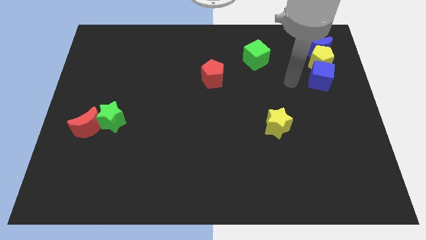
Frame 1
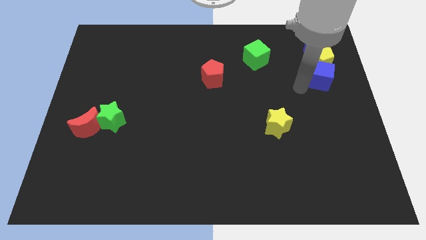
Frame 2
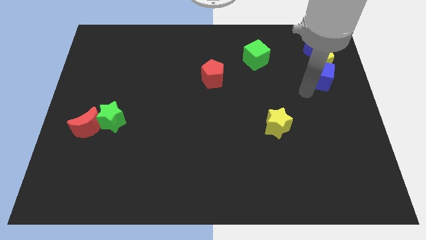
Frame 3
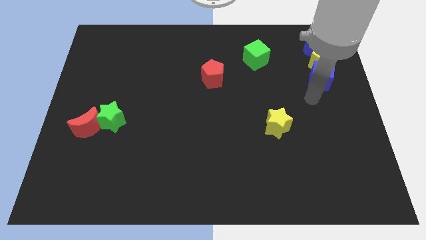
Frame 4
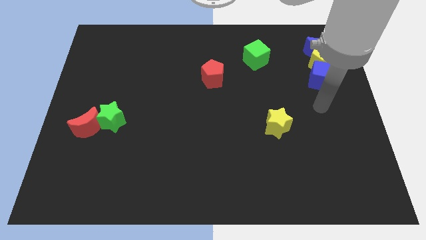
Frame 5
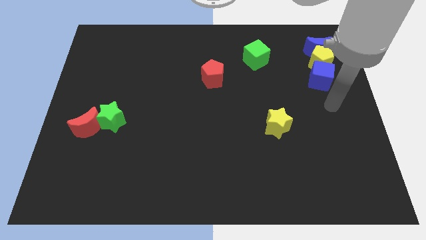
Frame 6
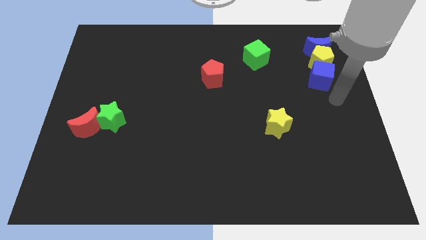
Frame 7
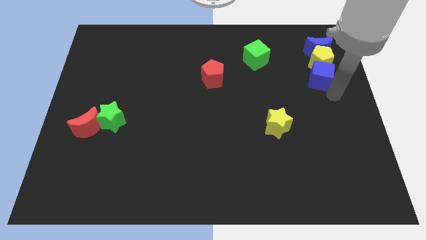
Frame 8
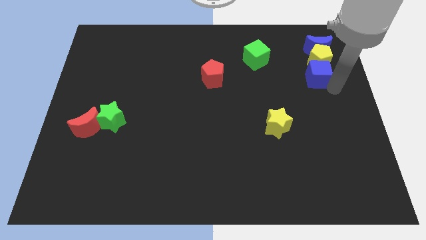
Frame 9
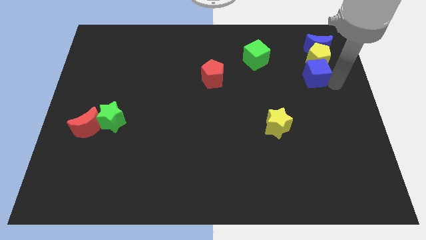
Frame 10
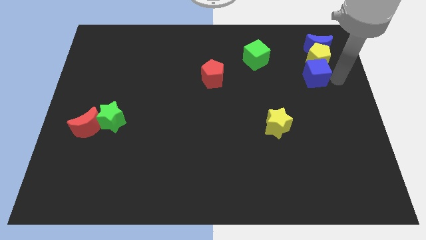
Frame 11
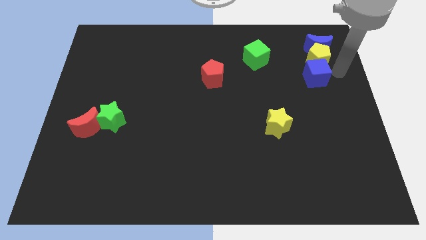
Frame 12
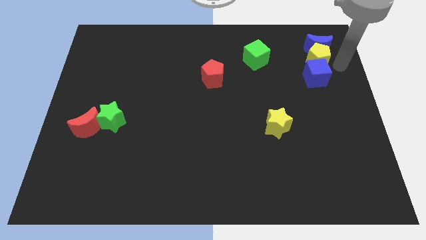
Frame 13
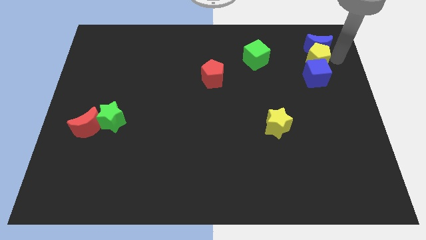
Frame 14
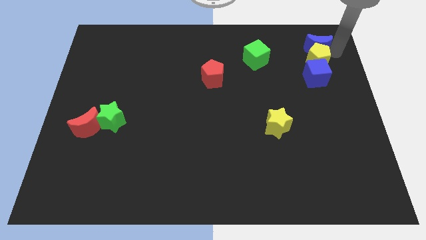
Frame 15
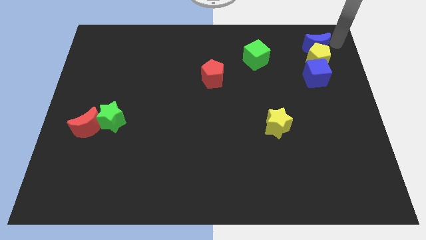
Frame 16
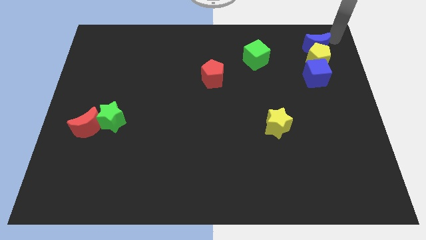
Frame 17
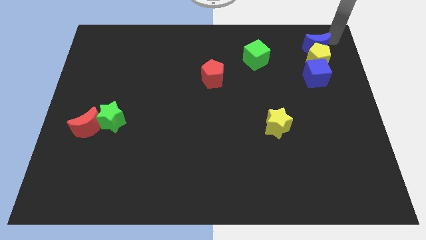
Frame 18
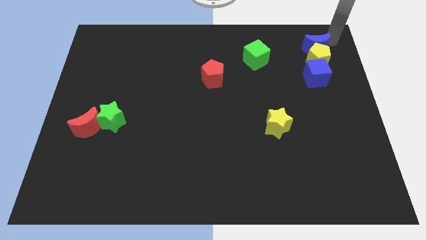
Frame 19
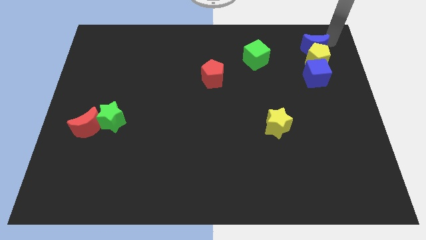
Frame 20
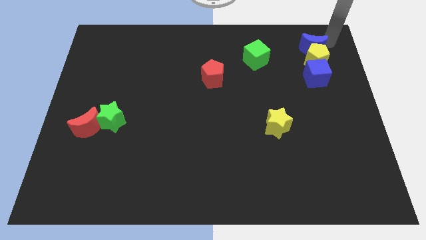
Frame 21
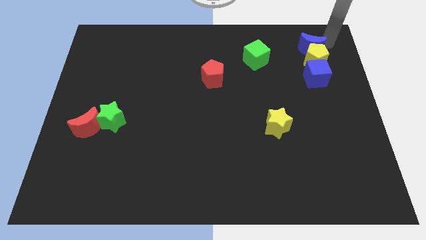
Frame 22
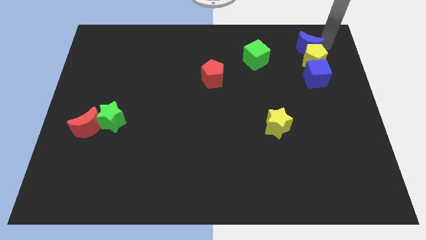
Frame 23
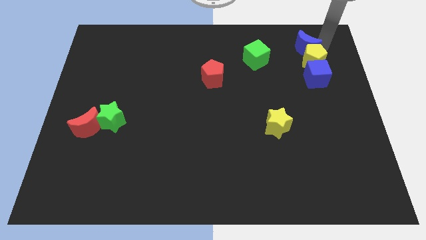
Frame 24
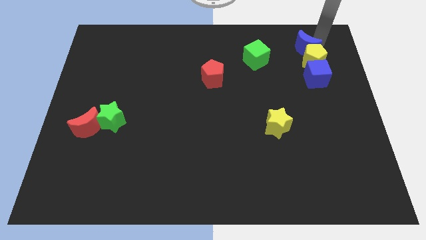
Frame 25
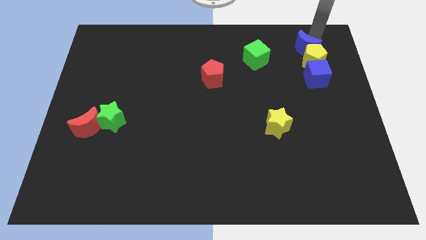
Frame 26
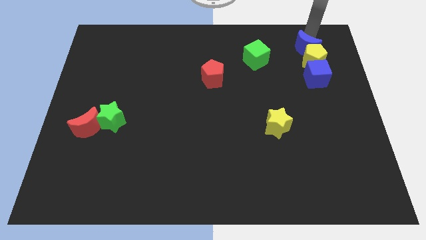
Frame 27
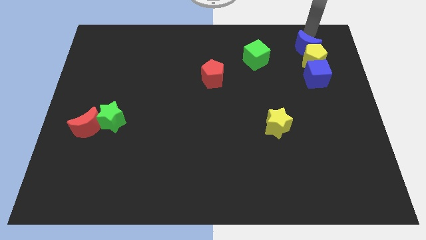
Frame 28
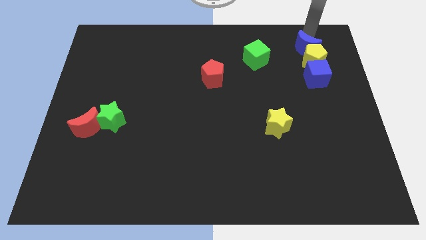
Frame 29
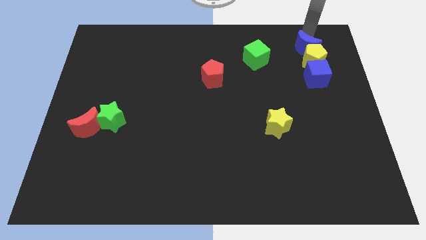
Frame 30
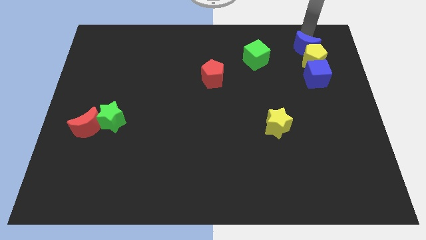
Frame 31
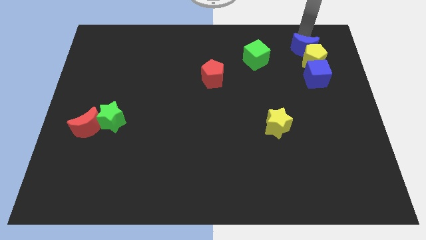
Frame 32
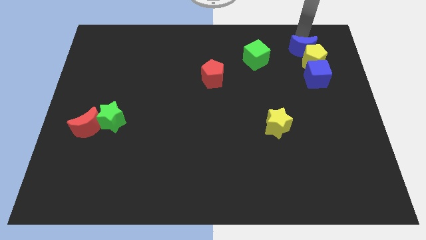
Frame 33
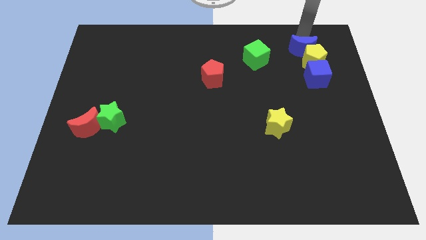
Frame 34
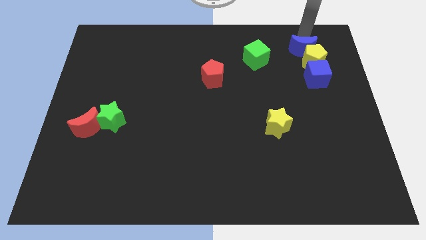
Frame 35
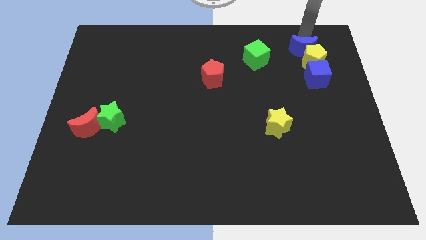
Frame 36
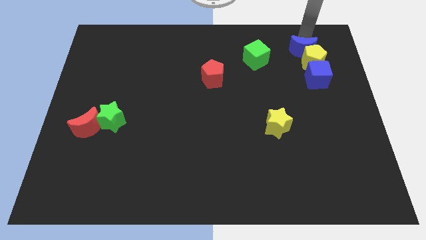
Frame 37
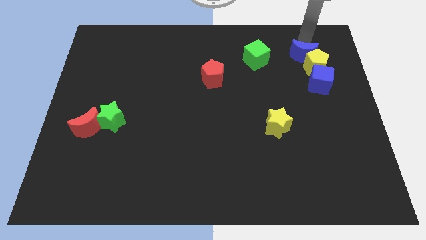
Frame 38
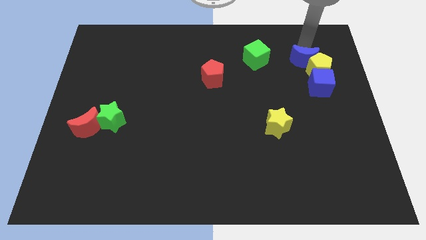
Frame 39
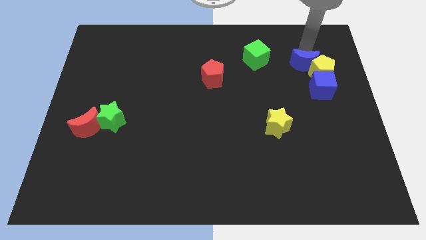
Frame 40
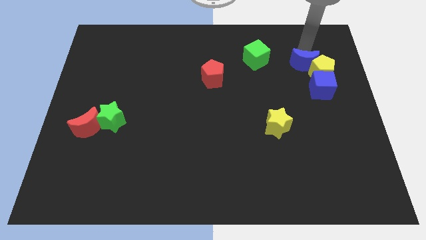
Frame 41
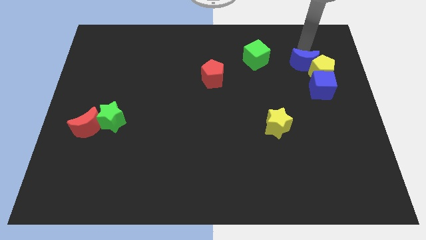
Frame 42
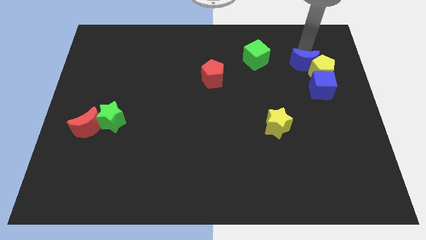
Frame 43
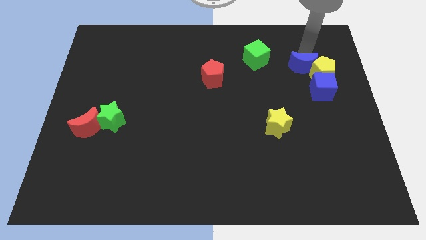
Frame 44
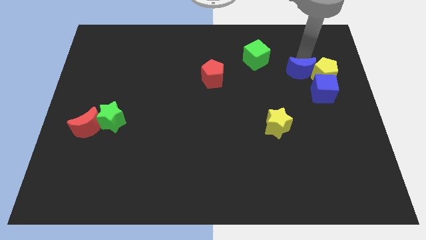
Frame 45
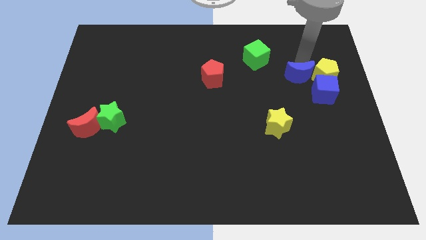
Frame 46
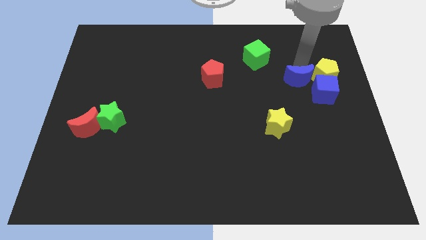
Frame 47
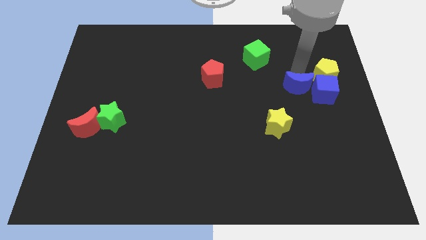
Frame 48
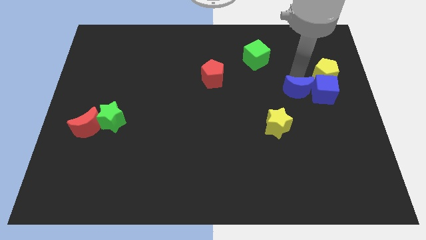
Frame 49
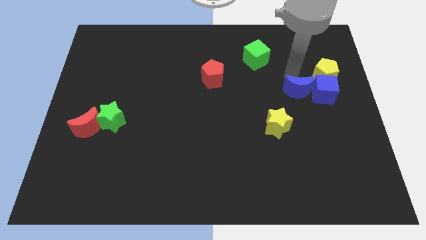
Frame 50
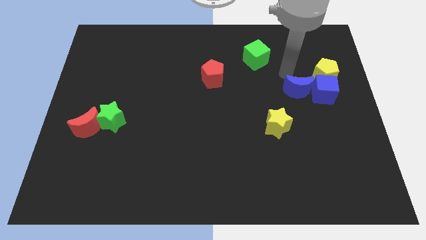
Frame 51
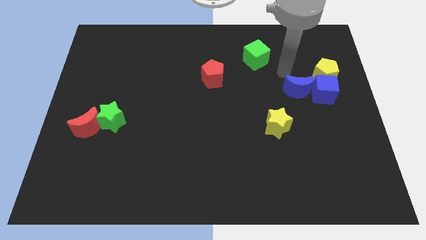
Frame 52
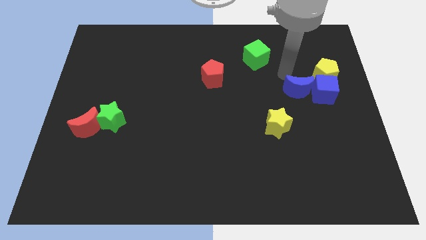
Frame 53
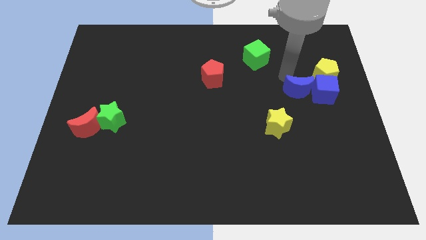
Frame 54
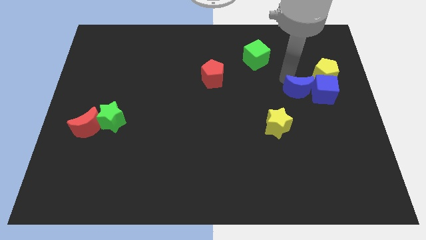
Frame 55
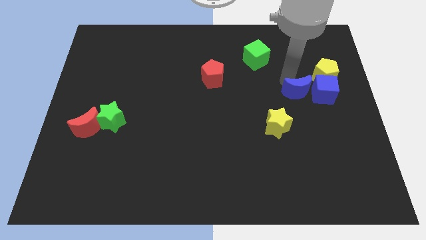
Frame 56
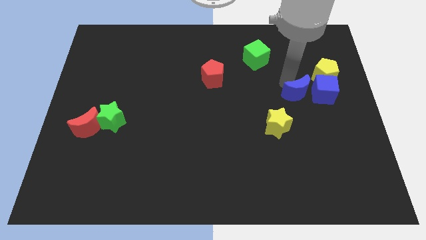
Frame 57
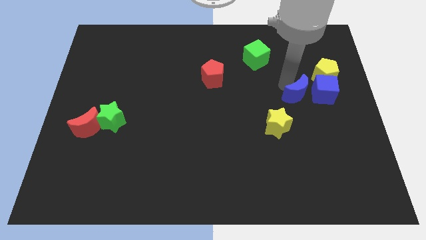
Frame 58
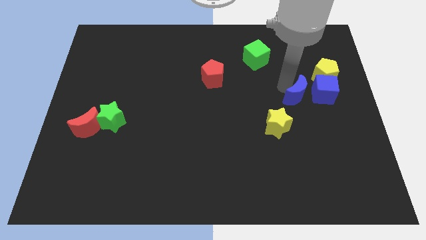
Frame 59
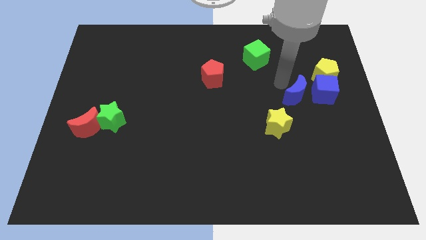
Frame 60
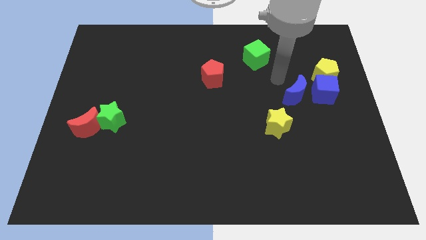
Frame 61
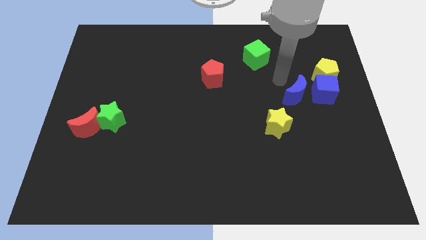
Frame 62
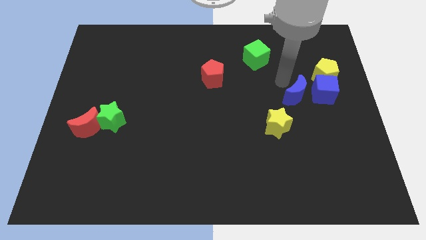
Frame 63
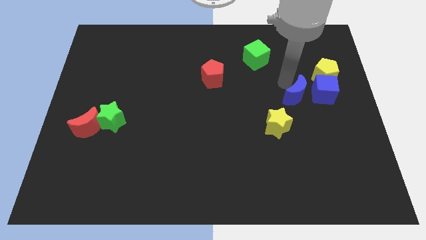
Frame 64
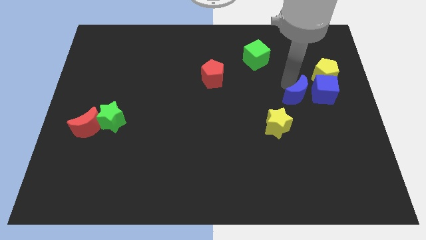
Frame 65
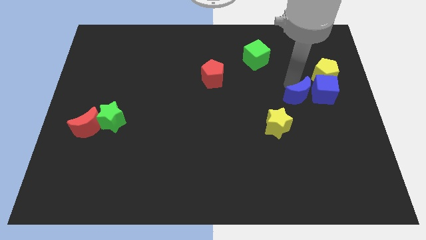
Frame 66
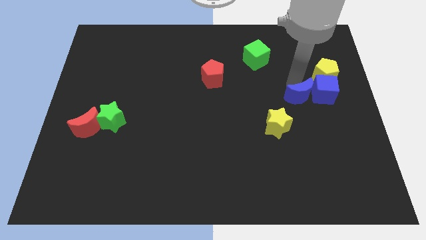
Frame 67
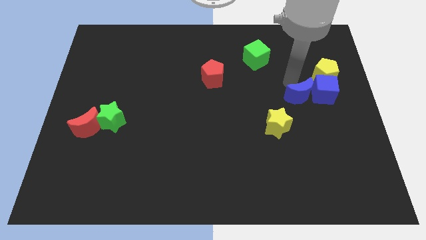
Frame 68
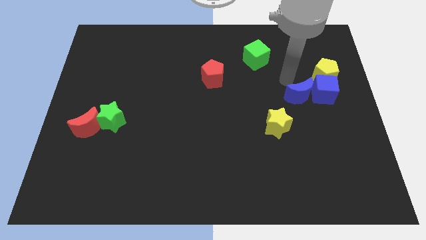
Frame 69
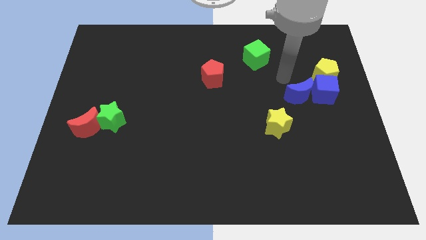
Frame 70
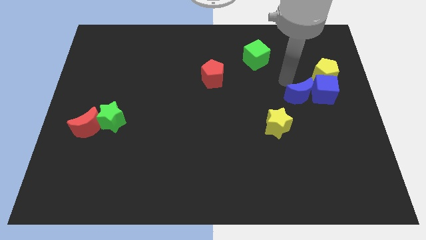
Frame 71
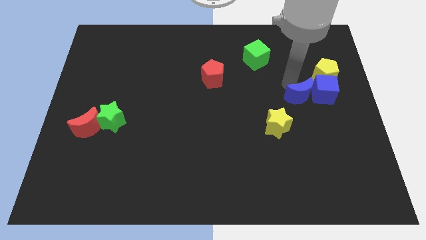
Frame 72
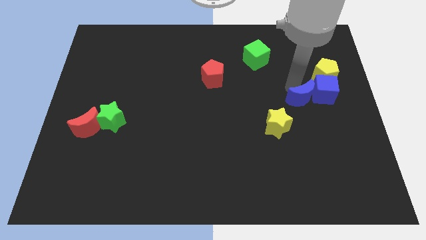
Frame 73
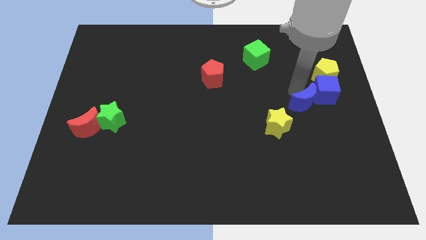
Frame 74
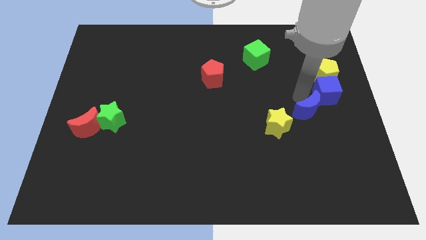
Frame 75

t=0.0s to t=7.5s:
put the blue moon to the right of the yellow star
